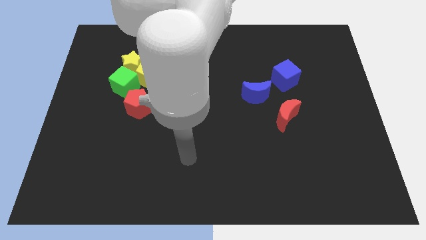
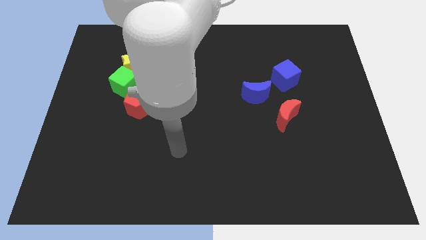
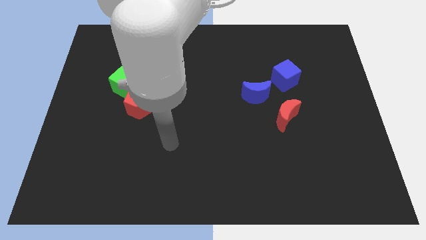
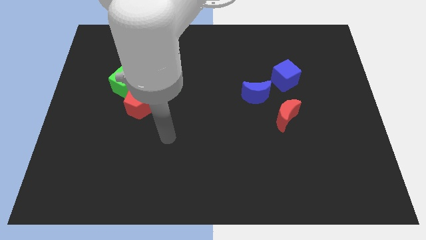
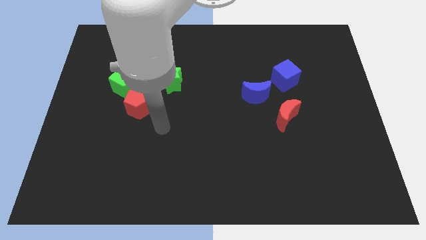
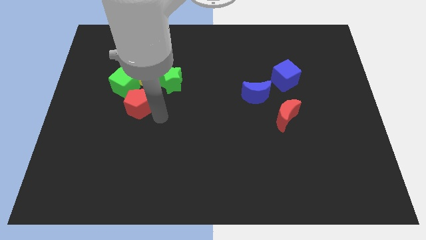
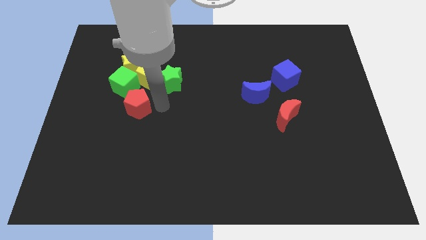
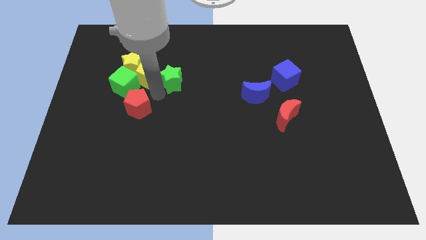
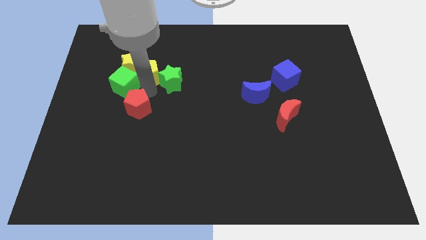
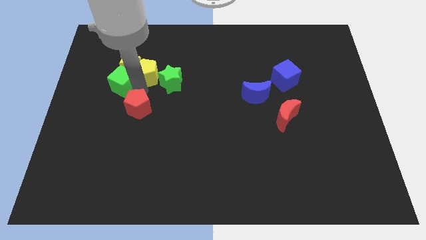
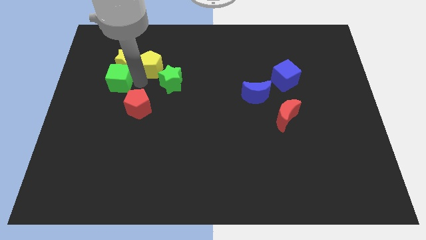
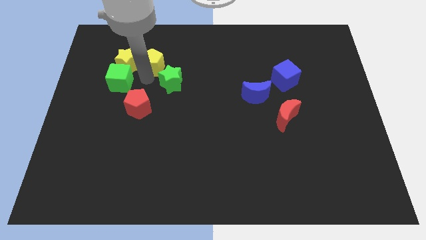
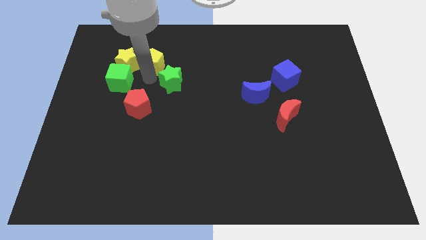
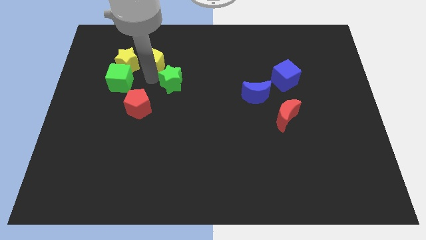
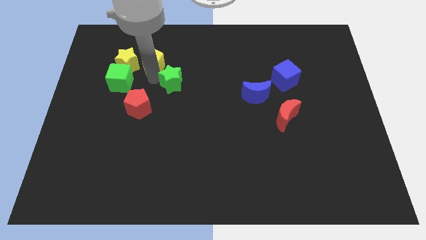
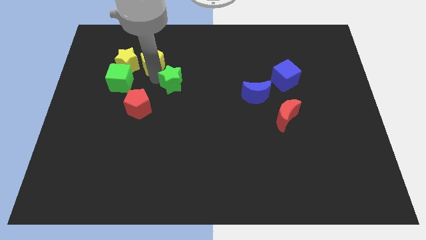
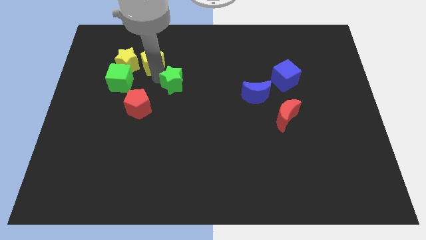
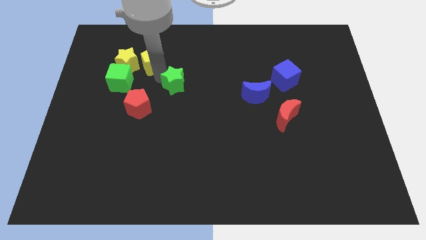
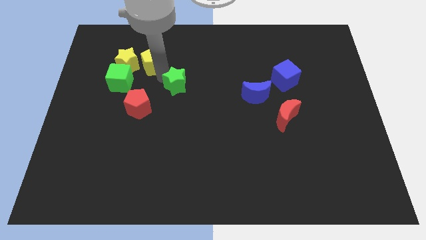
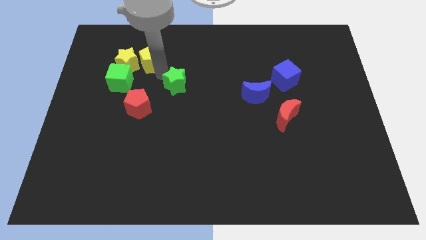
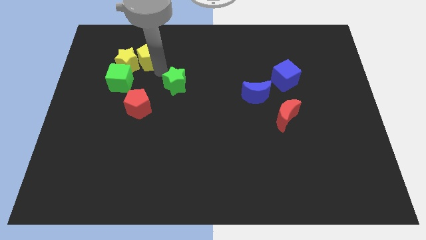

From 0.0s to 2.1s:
pull the green star apart from the yellow pentagon

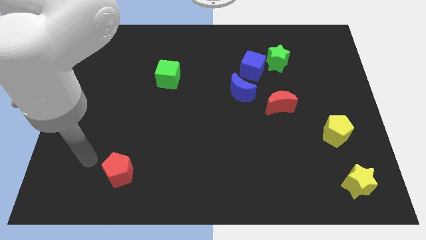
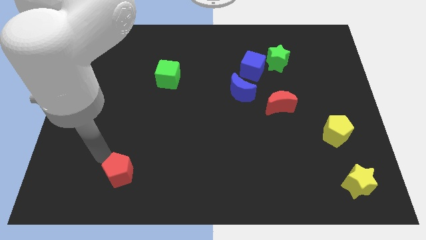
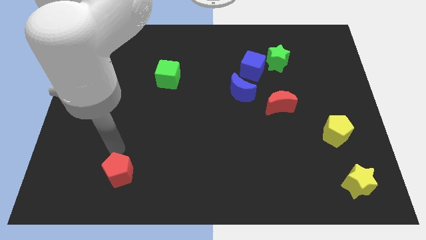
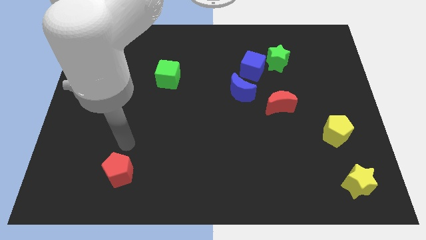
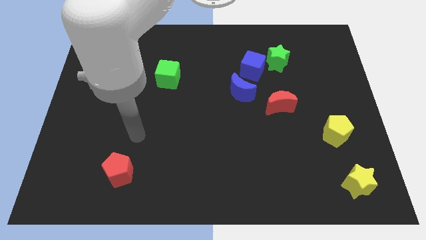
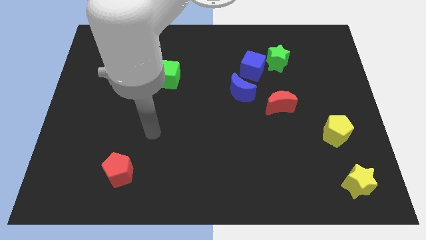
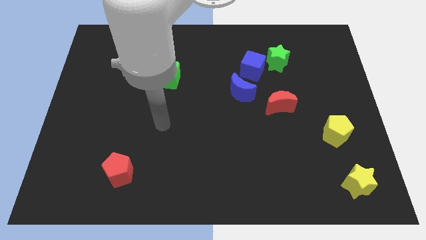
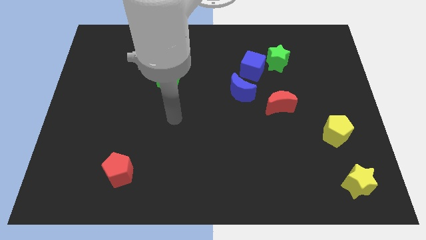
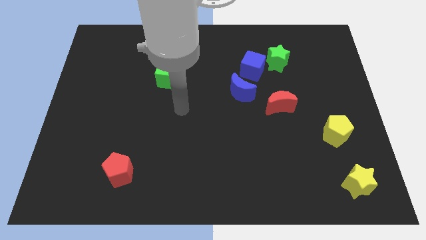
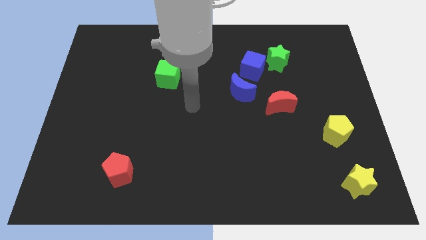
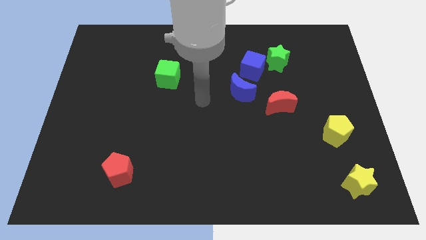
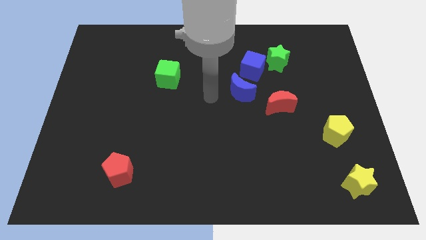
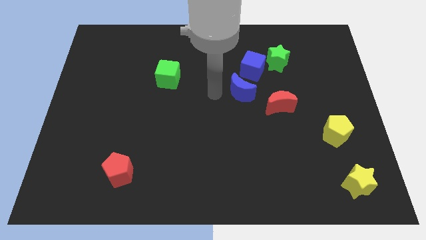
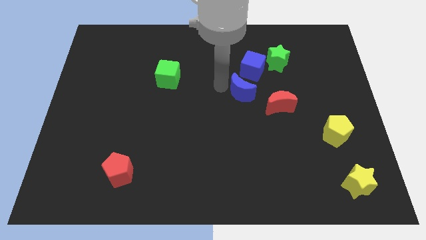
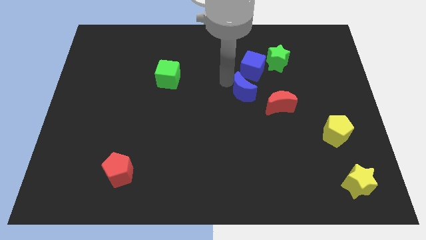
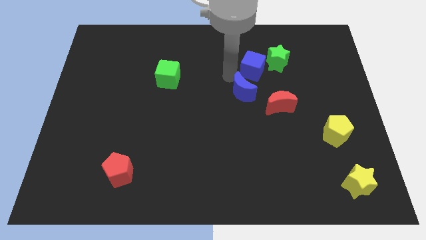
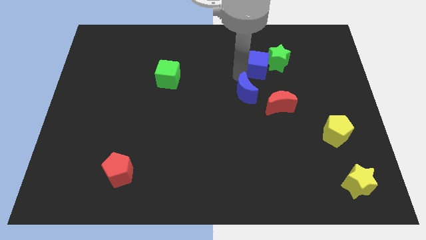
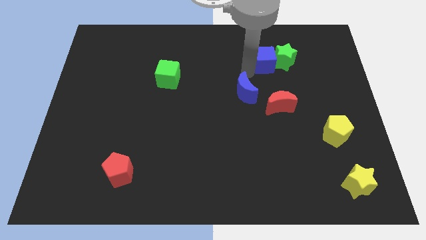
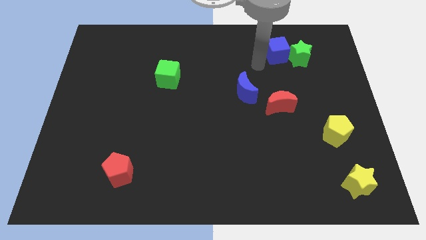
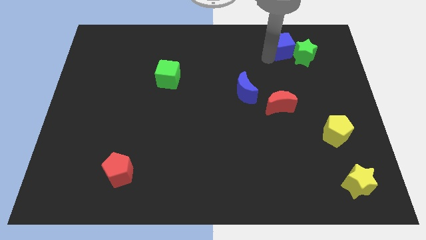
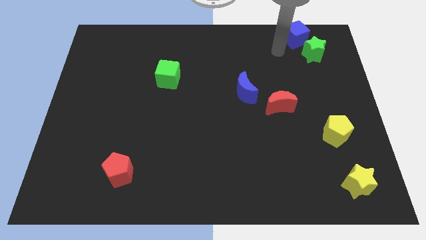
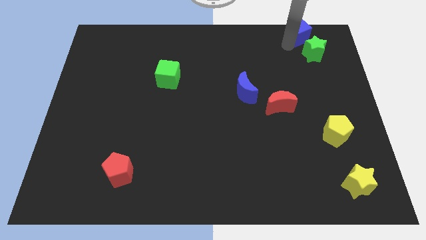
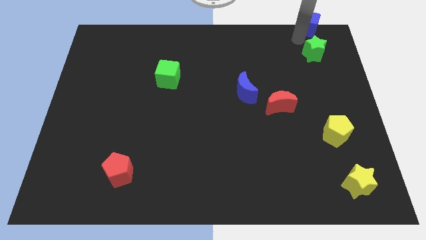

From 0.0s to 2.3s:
separate the green star from the blue cube

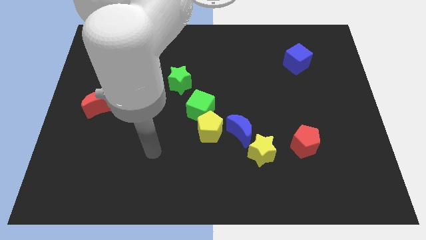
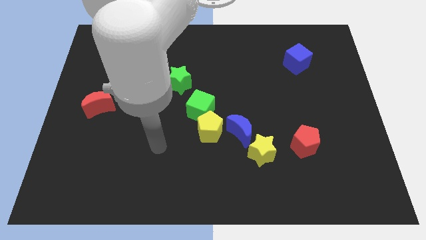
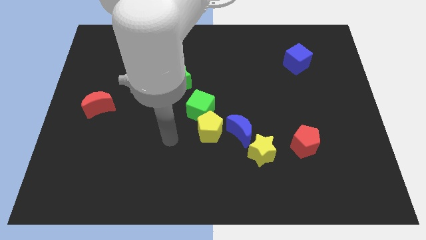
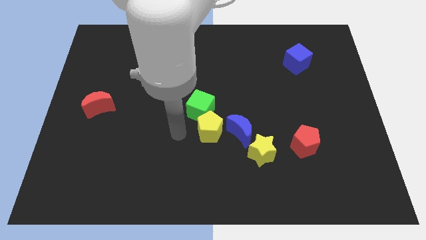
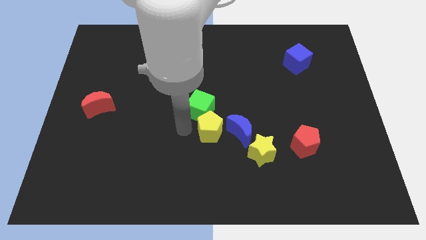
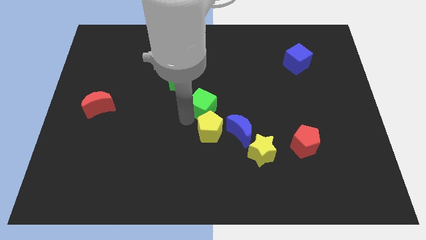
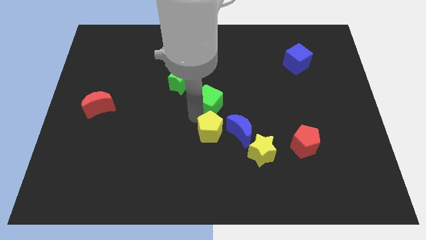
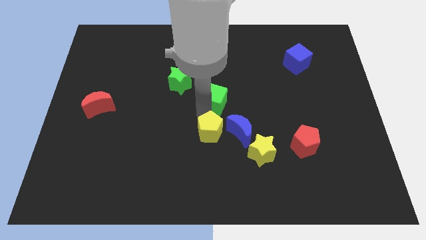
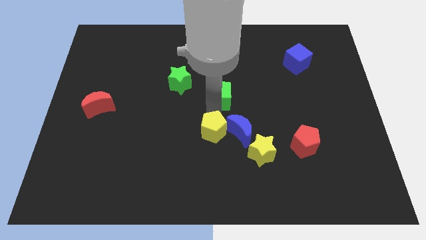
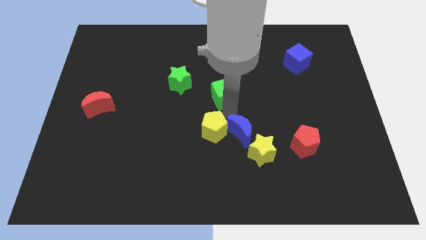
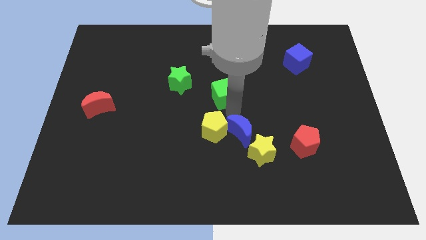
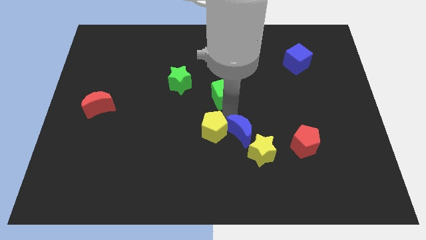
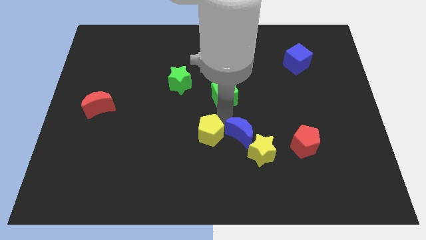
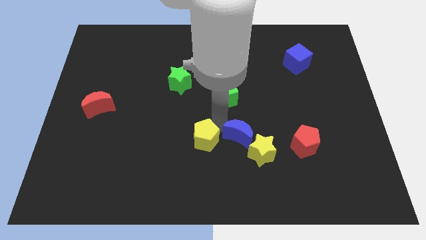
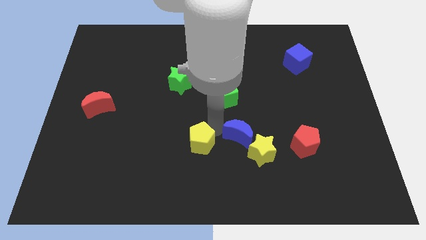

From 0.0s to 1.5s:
pull the yellow pentagon apart from the green cube and blue moon

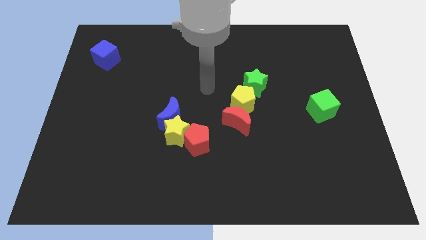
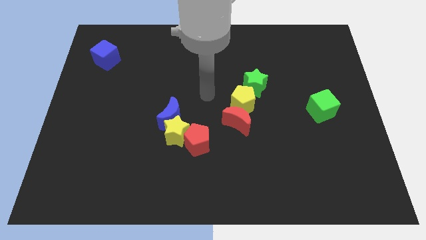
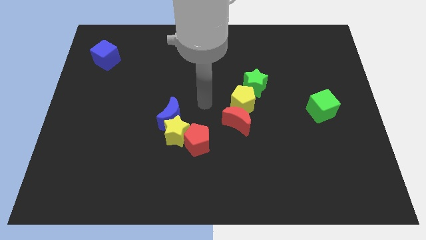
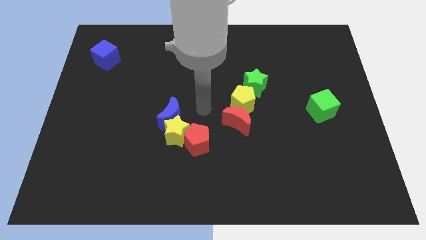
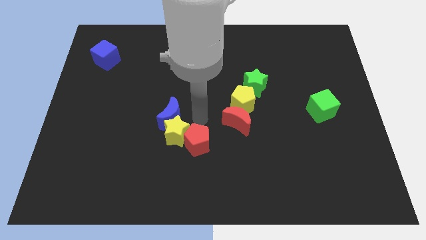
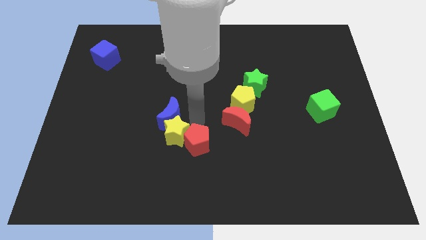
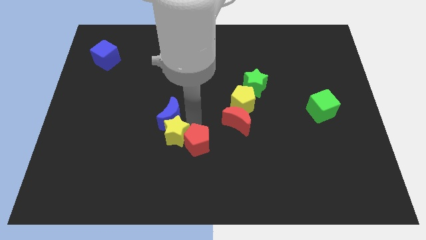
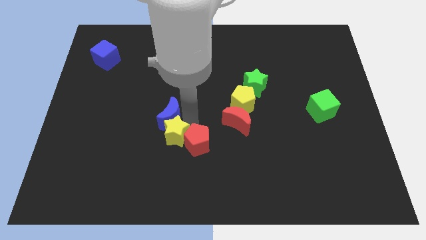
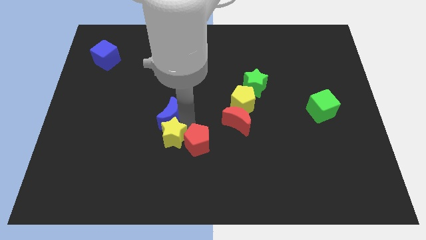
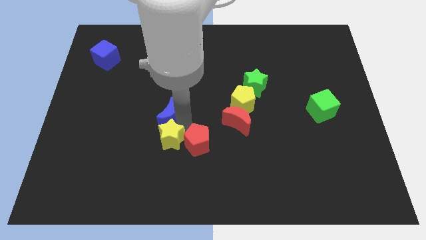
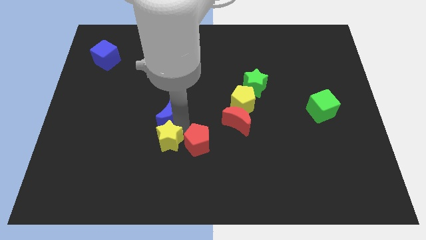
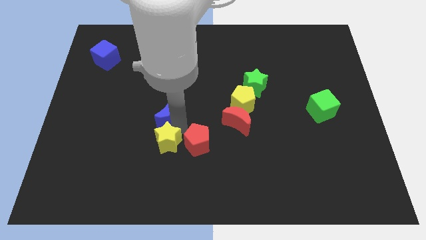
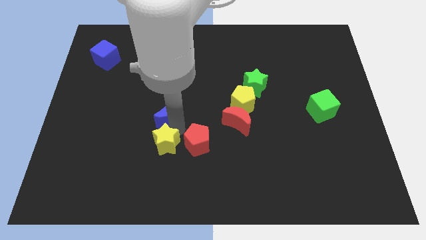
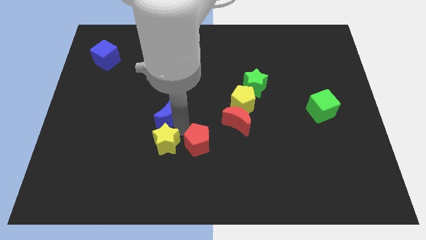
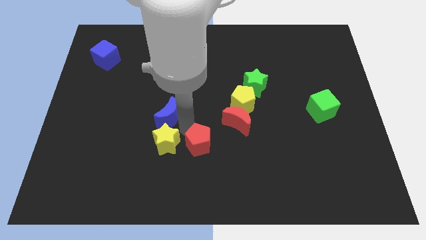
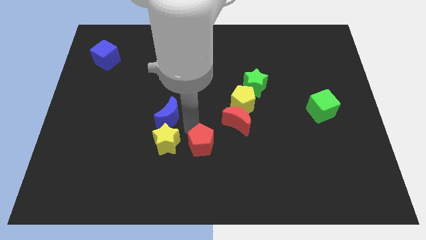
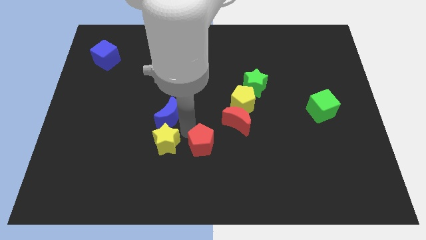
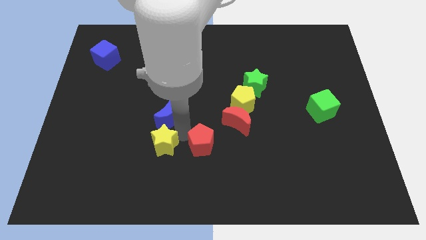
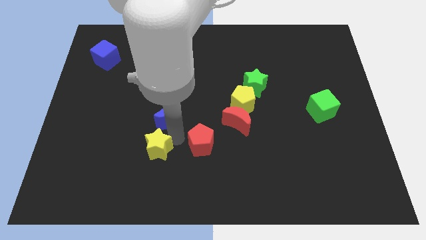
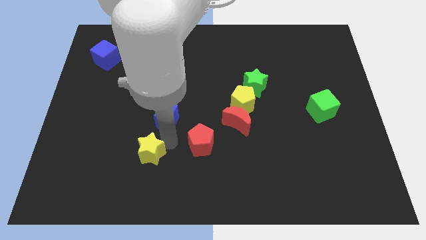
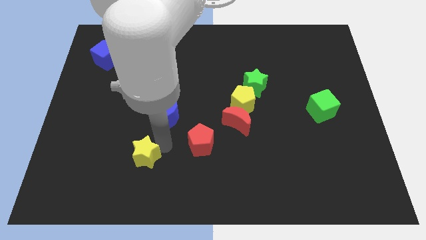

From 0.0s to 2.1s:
move the yellow star away from the blue moon and red pentagon

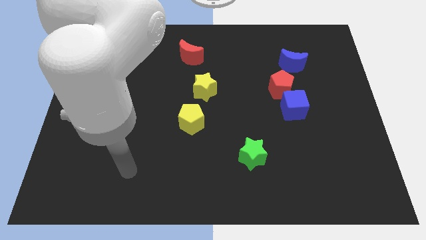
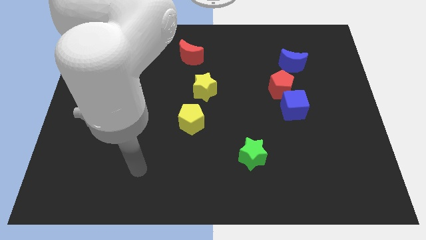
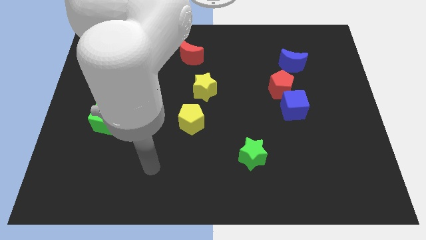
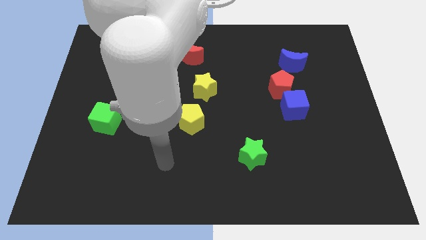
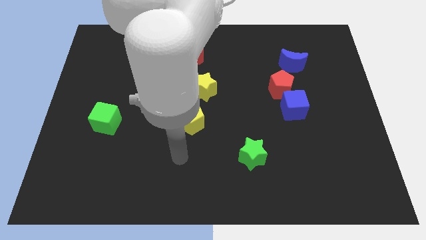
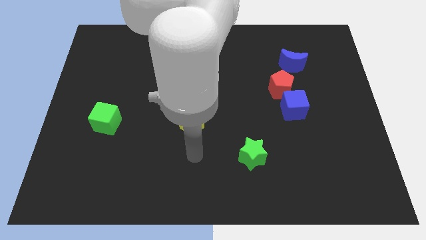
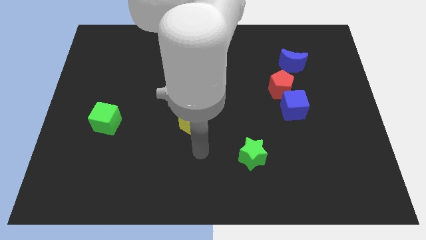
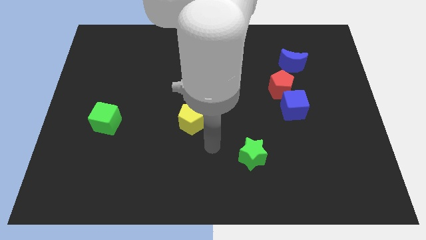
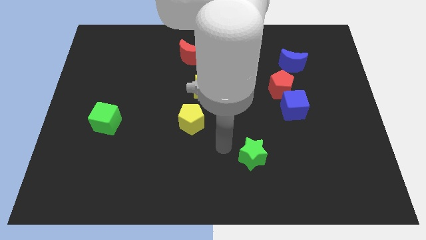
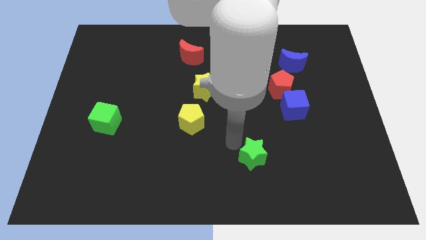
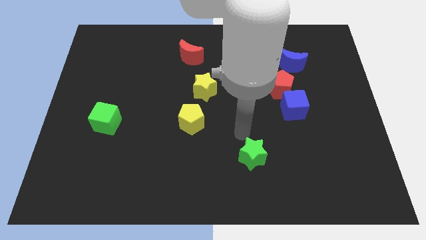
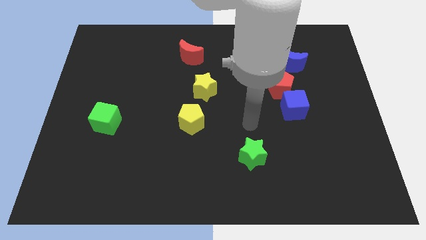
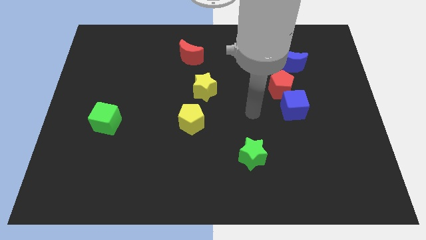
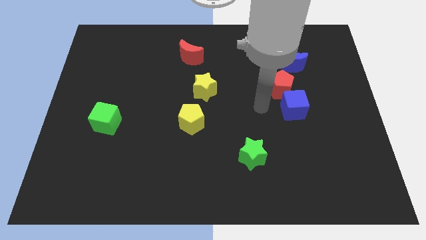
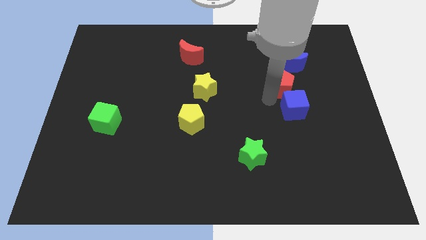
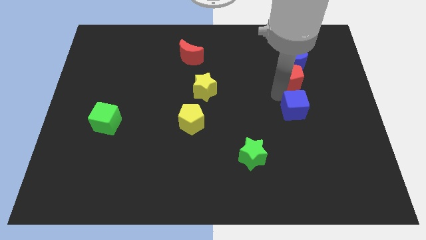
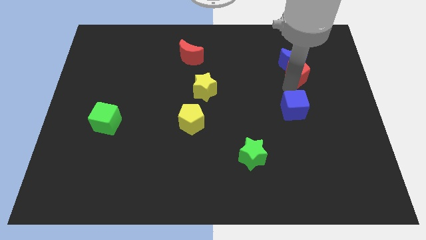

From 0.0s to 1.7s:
pull the blue cube apart from the red pentagon
